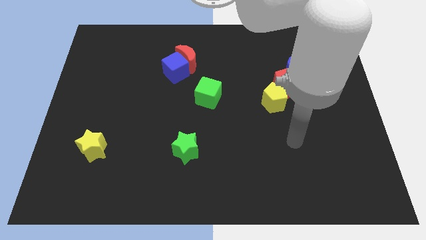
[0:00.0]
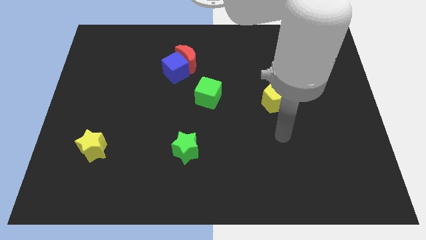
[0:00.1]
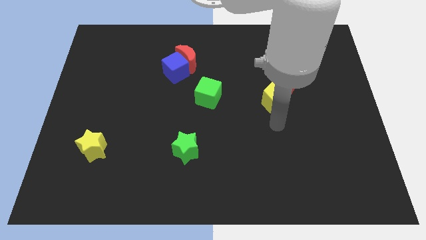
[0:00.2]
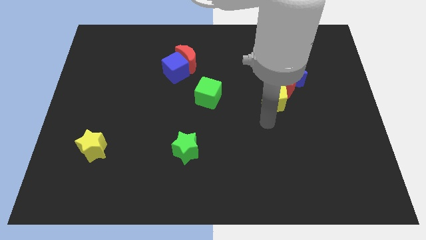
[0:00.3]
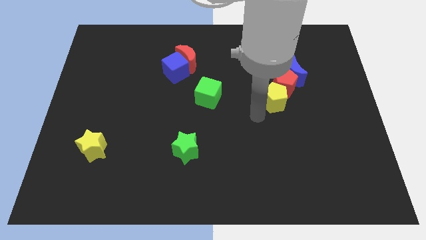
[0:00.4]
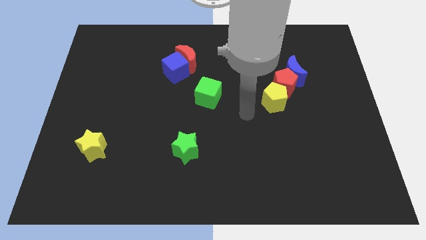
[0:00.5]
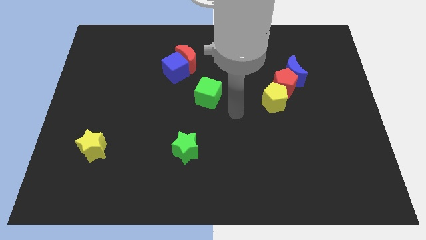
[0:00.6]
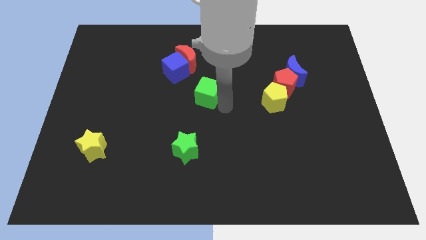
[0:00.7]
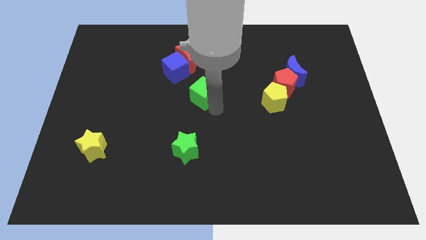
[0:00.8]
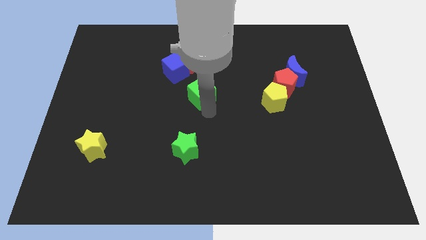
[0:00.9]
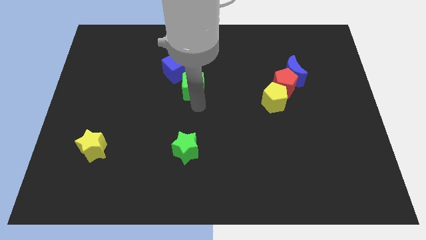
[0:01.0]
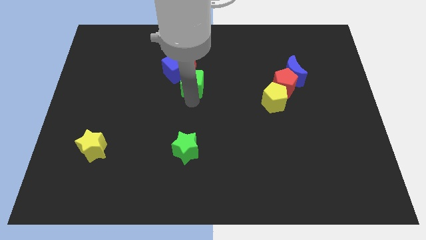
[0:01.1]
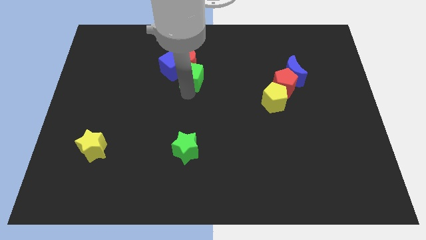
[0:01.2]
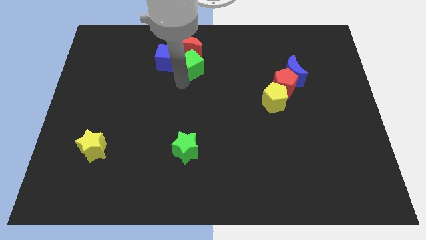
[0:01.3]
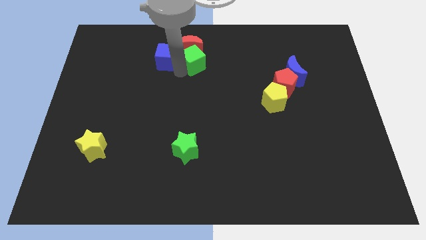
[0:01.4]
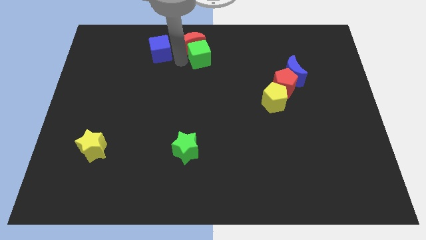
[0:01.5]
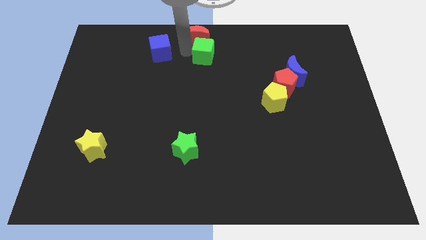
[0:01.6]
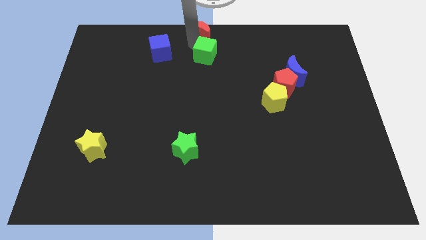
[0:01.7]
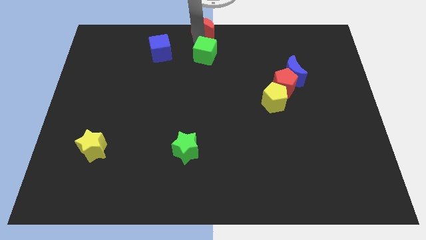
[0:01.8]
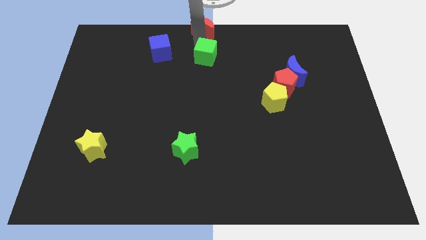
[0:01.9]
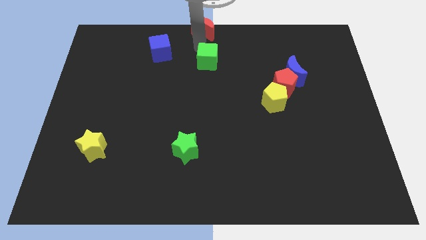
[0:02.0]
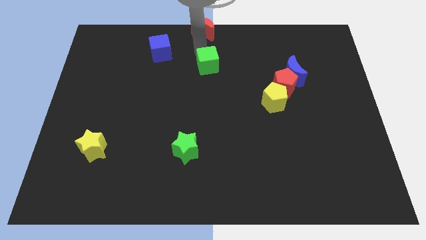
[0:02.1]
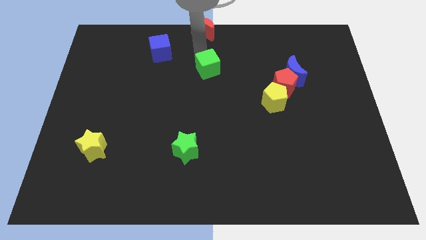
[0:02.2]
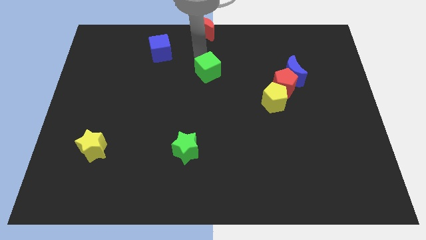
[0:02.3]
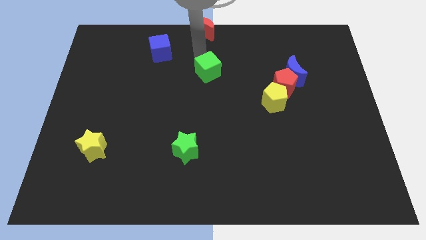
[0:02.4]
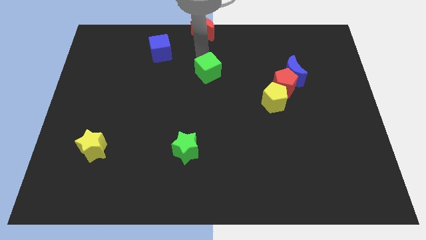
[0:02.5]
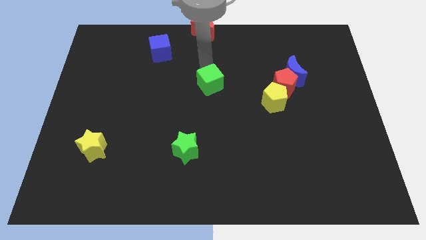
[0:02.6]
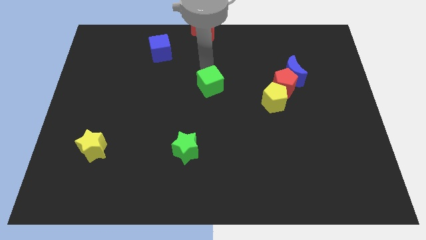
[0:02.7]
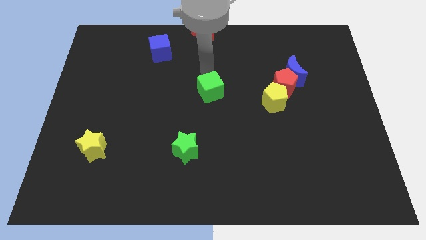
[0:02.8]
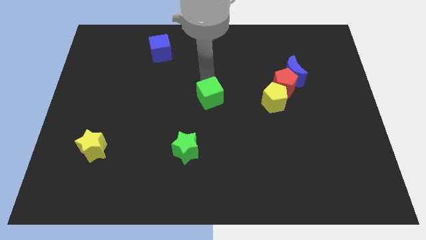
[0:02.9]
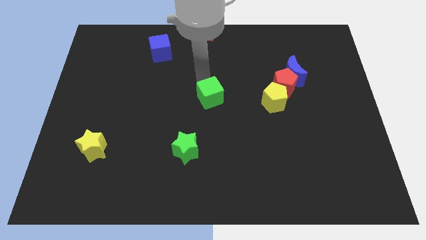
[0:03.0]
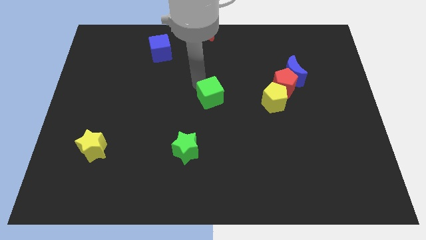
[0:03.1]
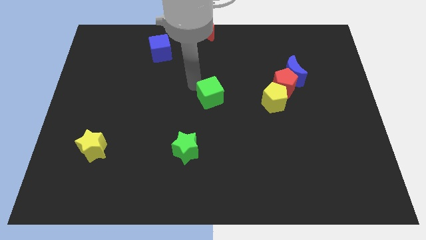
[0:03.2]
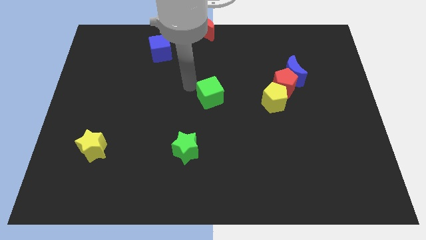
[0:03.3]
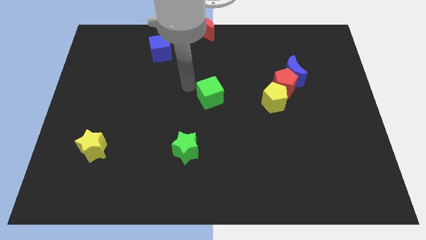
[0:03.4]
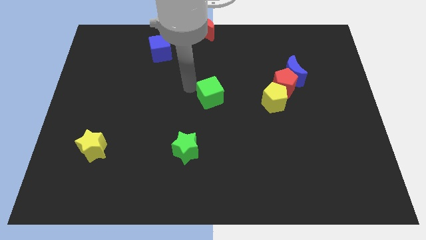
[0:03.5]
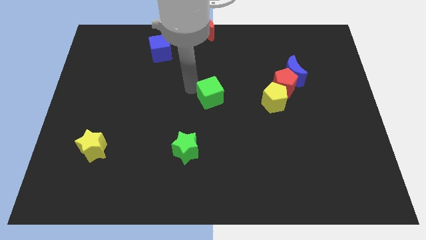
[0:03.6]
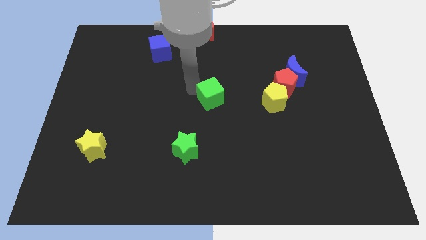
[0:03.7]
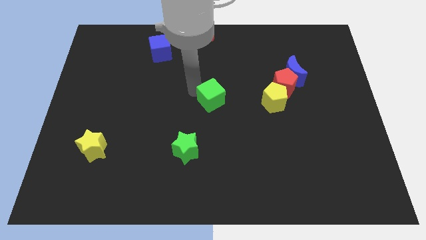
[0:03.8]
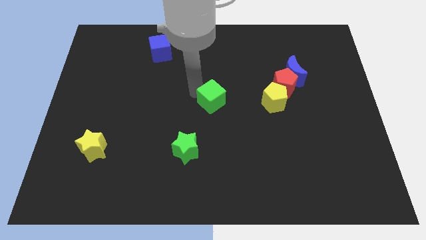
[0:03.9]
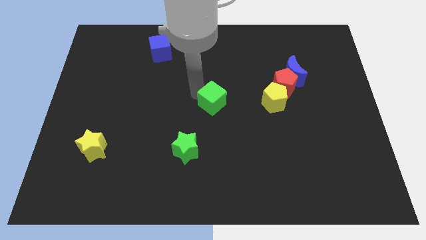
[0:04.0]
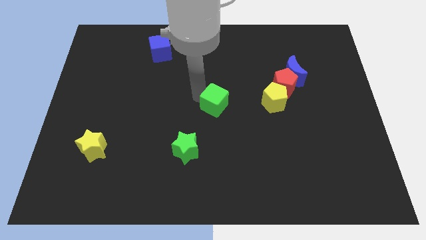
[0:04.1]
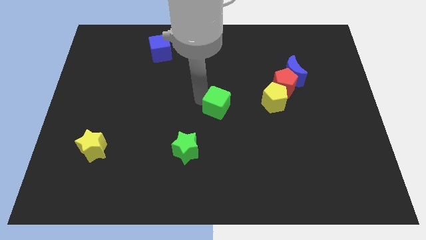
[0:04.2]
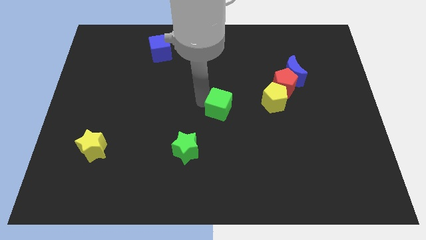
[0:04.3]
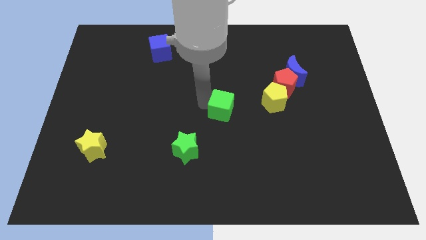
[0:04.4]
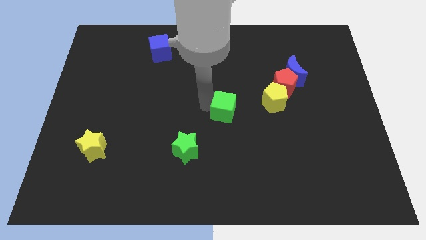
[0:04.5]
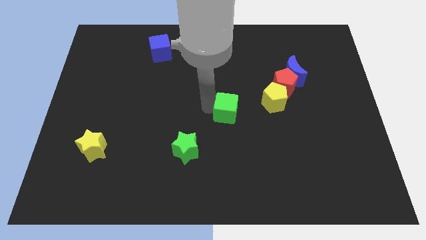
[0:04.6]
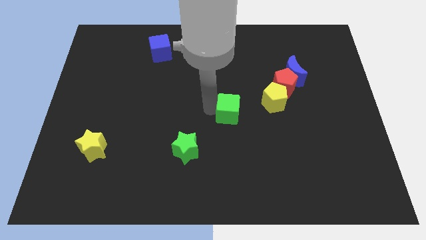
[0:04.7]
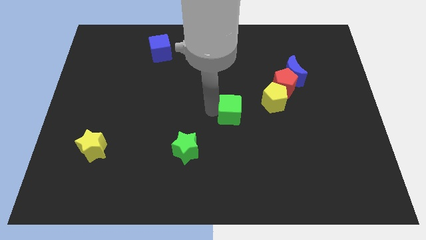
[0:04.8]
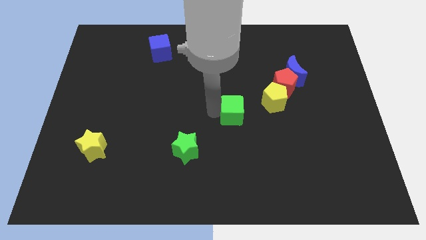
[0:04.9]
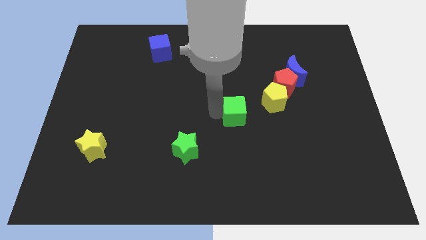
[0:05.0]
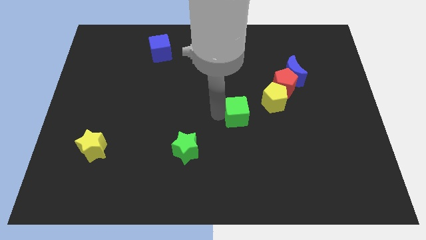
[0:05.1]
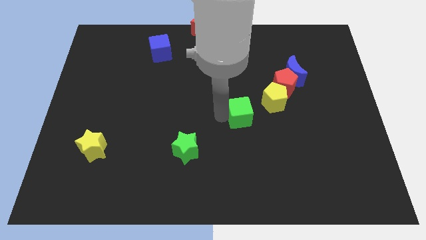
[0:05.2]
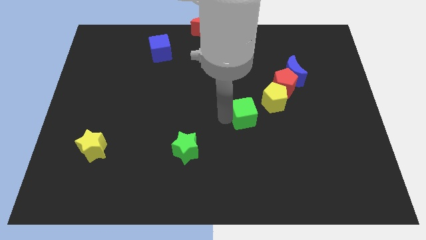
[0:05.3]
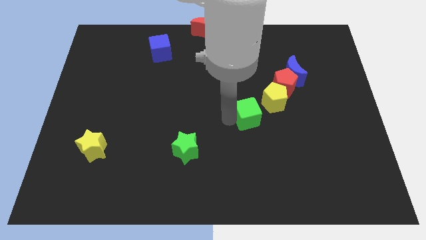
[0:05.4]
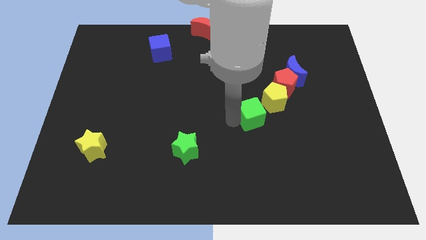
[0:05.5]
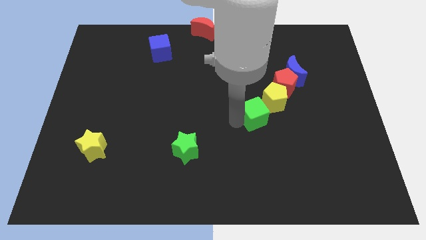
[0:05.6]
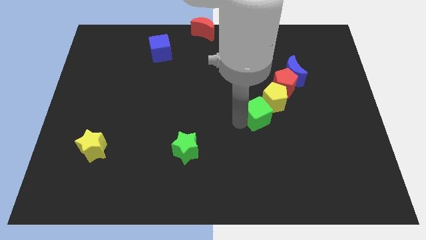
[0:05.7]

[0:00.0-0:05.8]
put the green cube next to the yellow pentagon

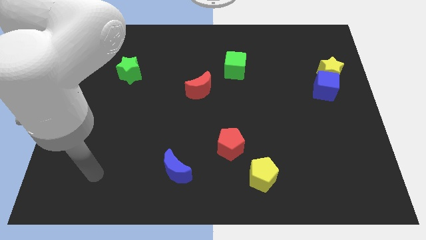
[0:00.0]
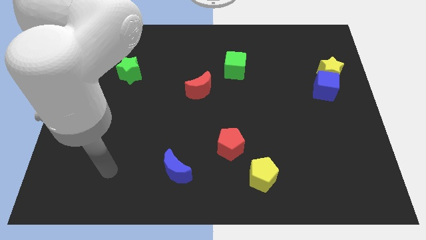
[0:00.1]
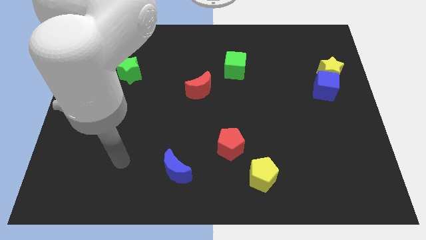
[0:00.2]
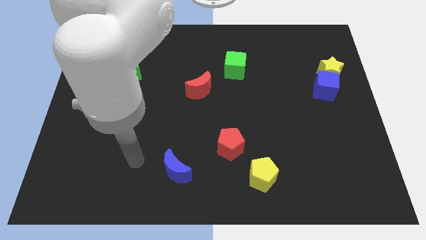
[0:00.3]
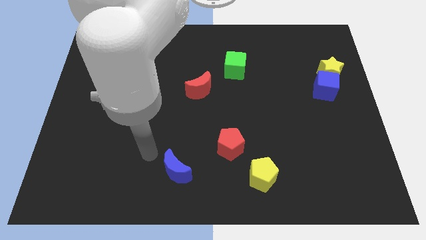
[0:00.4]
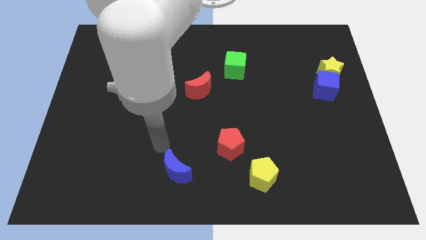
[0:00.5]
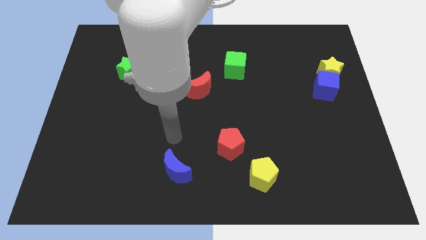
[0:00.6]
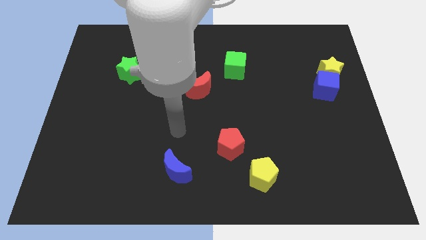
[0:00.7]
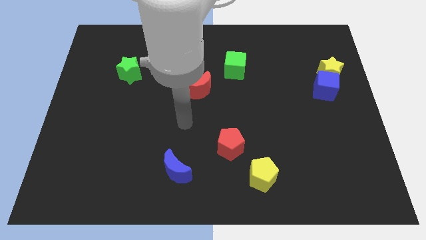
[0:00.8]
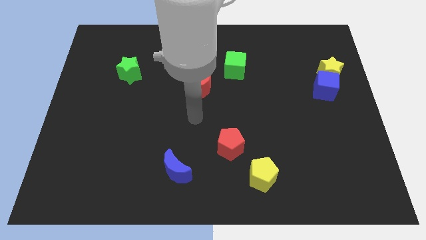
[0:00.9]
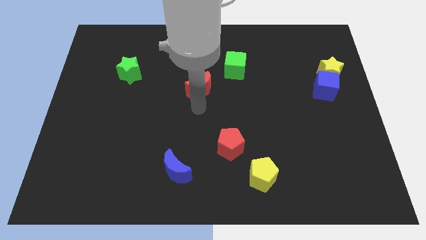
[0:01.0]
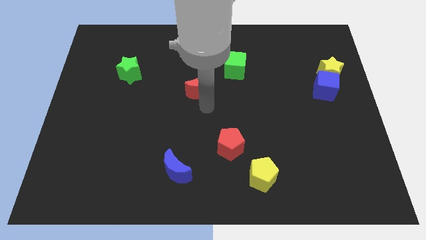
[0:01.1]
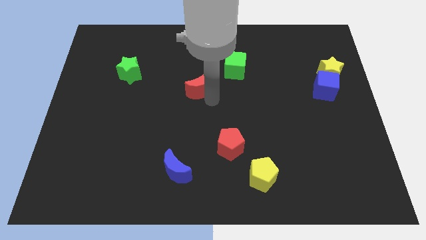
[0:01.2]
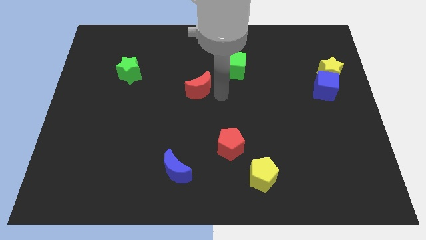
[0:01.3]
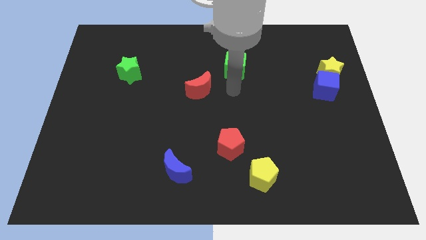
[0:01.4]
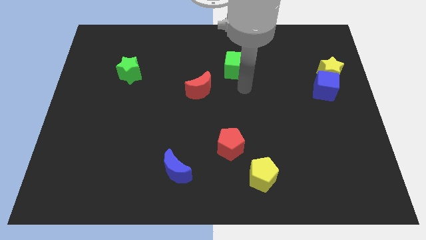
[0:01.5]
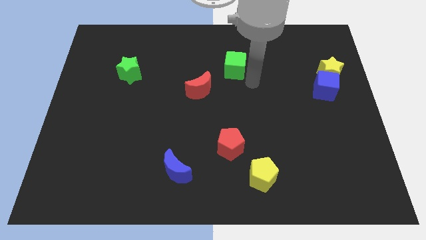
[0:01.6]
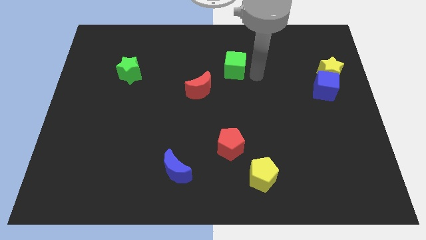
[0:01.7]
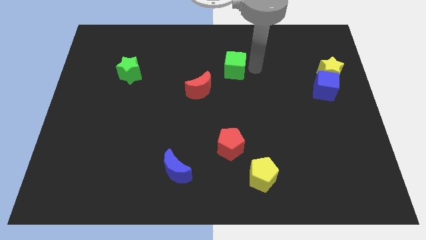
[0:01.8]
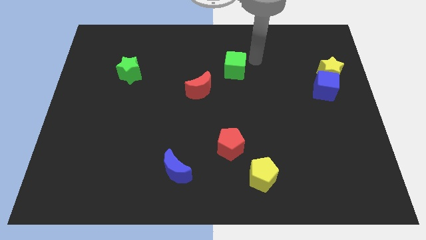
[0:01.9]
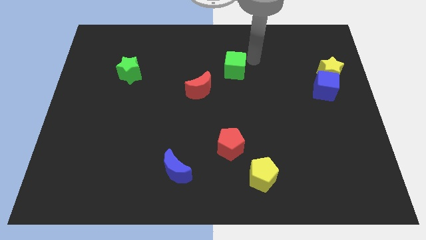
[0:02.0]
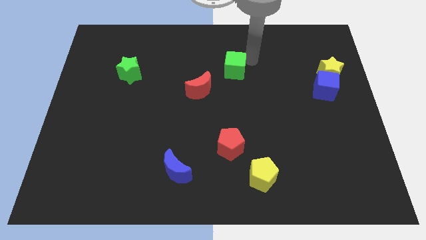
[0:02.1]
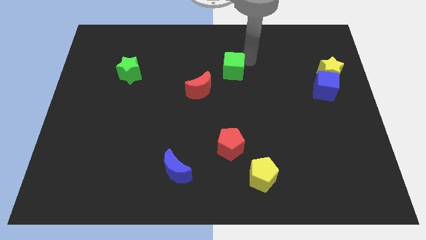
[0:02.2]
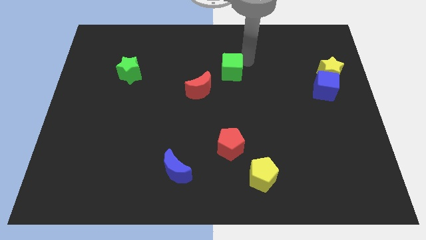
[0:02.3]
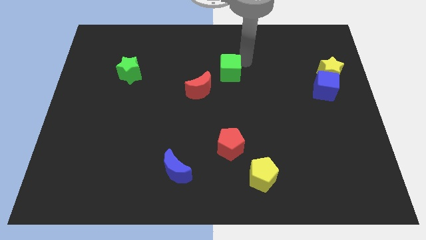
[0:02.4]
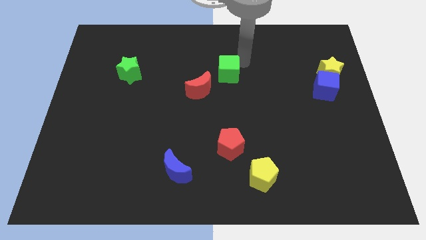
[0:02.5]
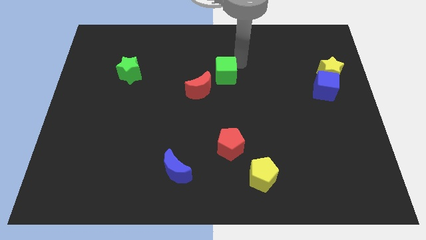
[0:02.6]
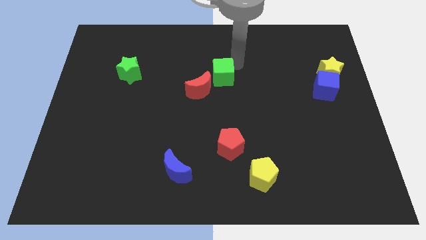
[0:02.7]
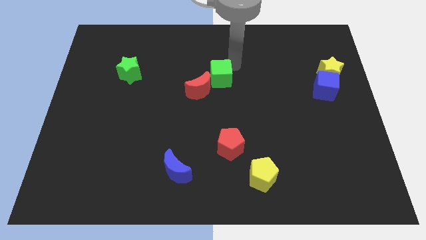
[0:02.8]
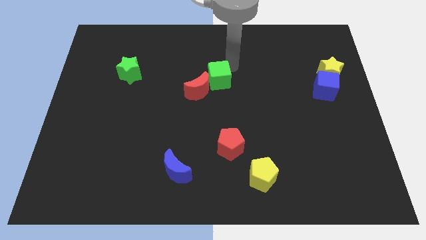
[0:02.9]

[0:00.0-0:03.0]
push the green cube close to the red moon
